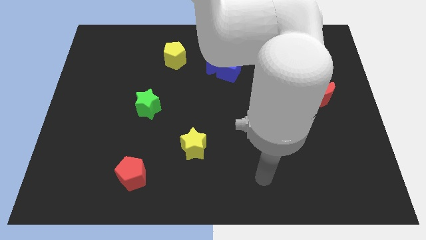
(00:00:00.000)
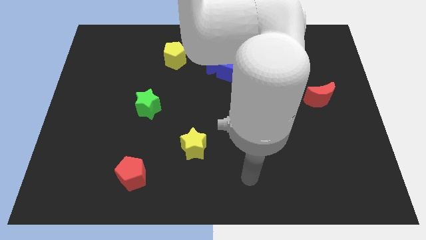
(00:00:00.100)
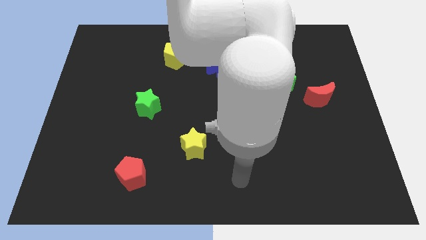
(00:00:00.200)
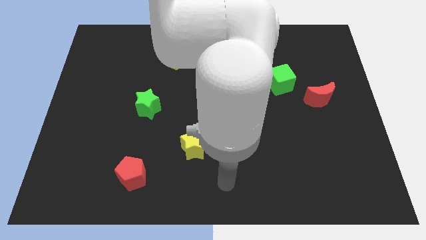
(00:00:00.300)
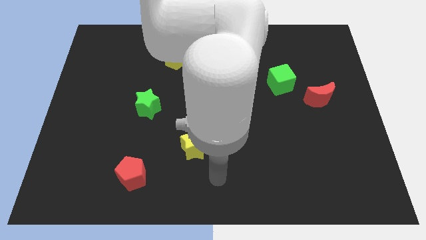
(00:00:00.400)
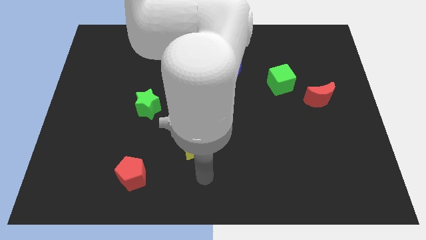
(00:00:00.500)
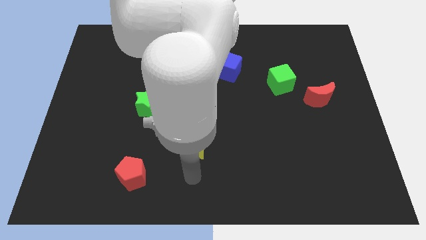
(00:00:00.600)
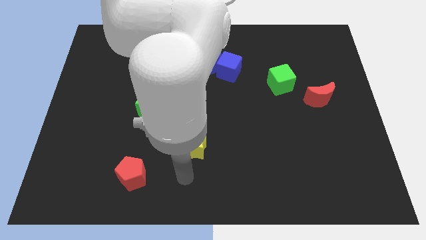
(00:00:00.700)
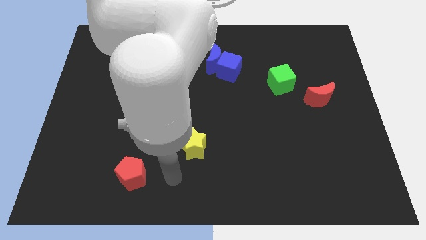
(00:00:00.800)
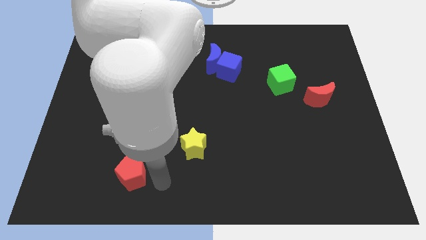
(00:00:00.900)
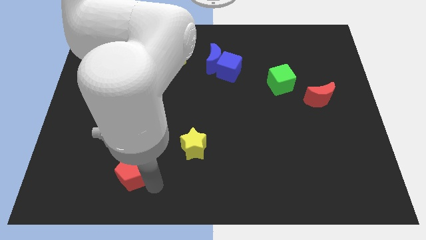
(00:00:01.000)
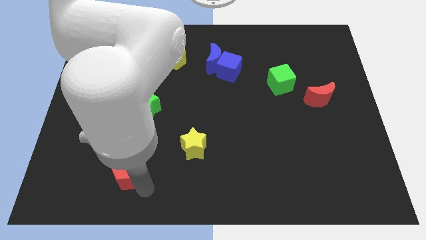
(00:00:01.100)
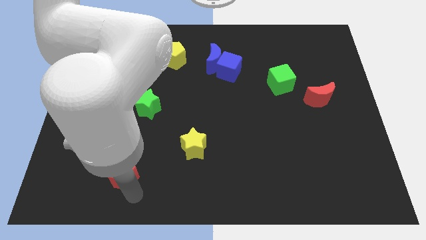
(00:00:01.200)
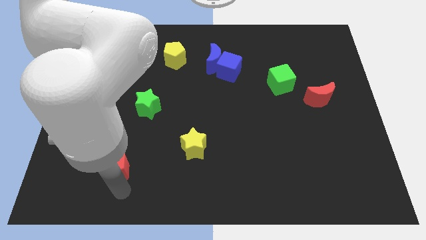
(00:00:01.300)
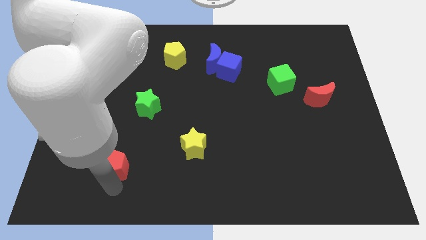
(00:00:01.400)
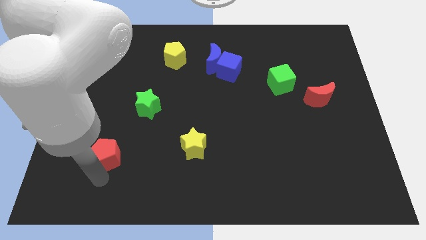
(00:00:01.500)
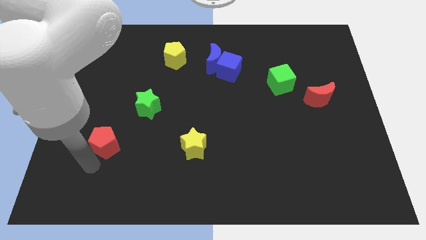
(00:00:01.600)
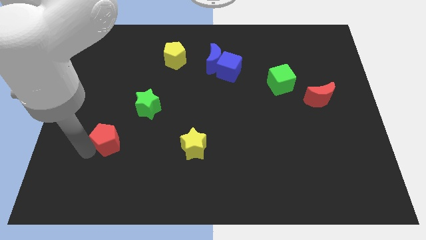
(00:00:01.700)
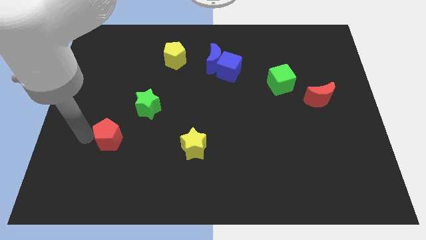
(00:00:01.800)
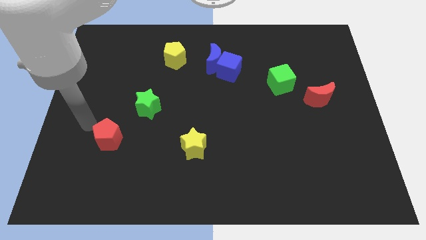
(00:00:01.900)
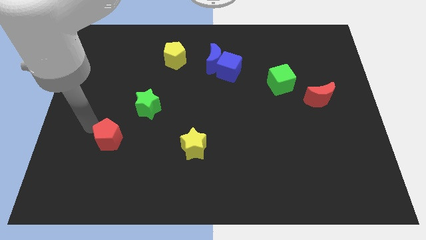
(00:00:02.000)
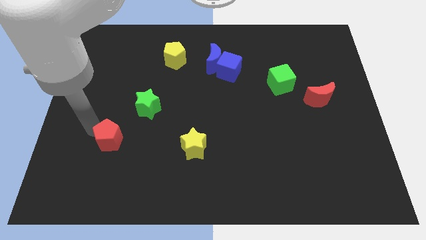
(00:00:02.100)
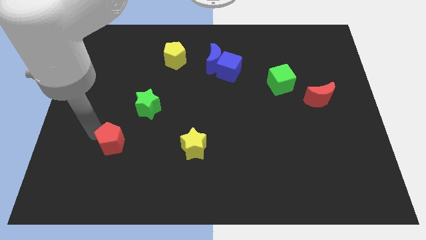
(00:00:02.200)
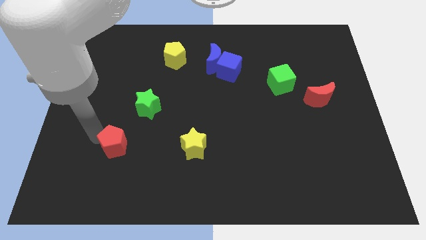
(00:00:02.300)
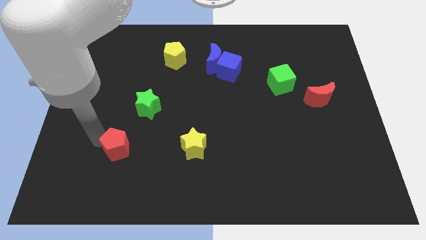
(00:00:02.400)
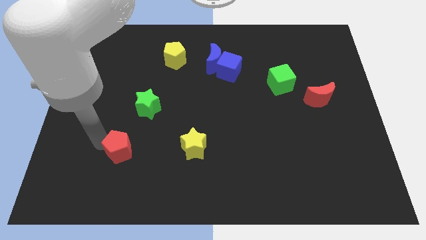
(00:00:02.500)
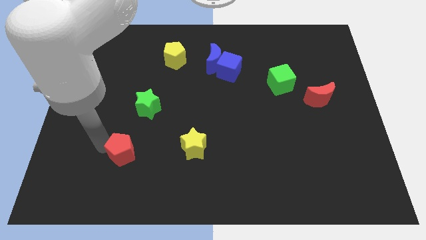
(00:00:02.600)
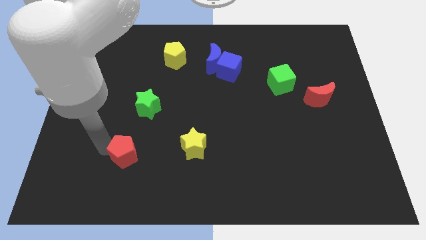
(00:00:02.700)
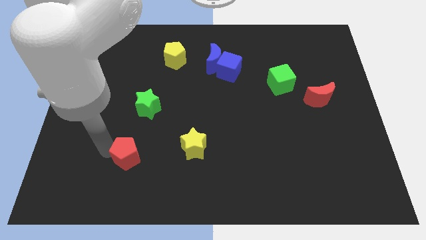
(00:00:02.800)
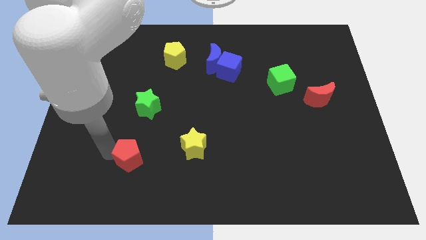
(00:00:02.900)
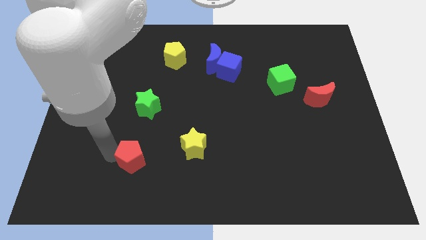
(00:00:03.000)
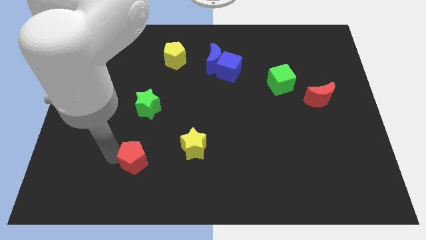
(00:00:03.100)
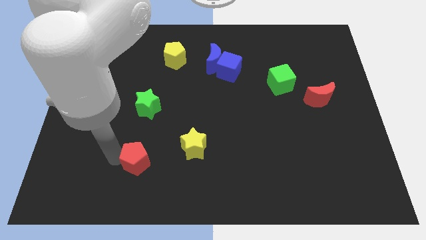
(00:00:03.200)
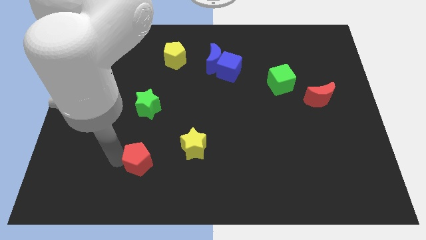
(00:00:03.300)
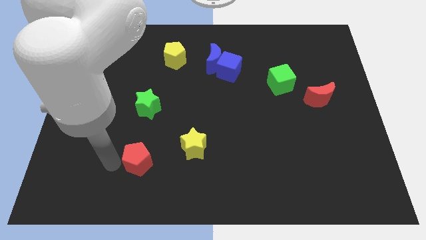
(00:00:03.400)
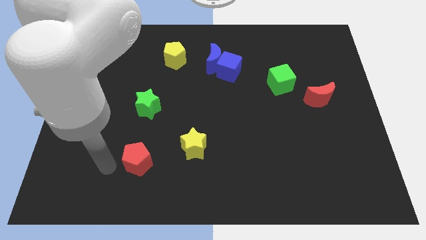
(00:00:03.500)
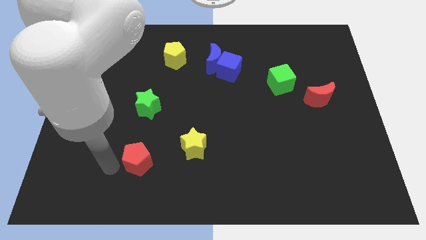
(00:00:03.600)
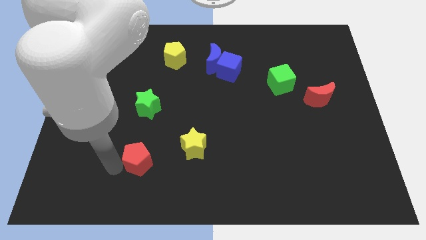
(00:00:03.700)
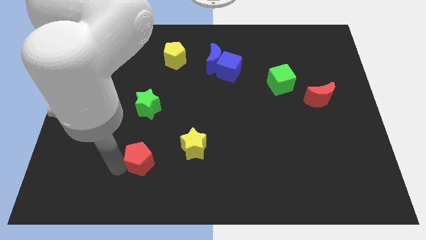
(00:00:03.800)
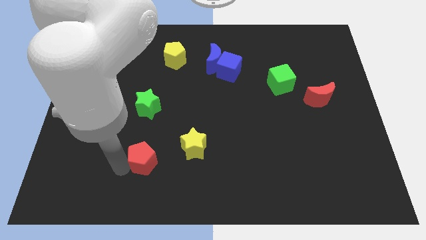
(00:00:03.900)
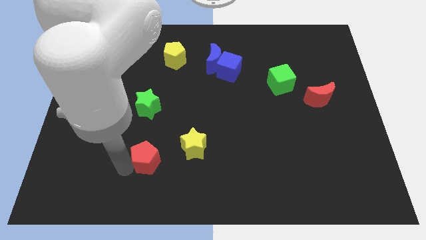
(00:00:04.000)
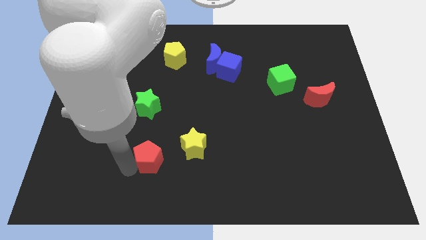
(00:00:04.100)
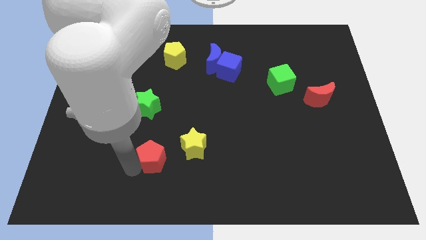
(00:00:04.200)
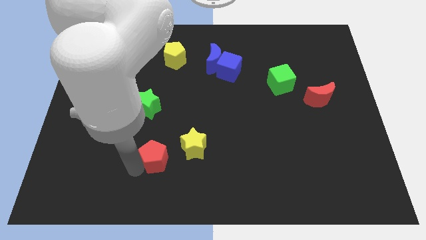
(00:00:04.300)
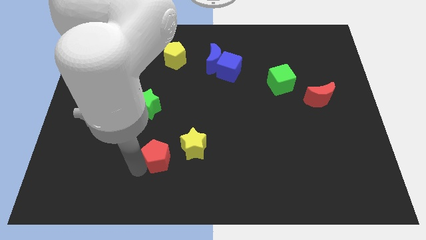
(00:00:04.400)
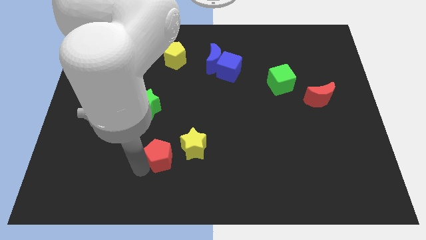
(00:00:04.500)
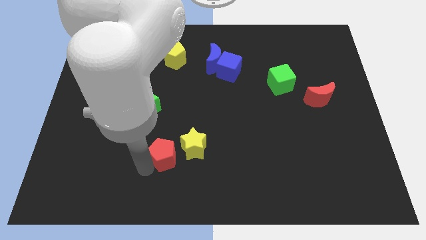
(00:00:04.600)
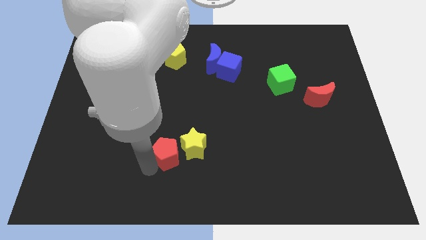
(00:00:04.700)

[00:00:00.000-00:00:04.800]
put the red pentagon to the yellow star

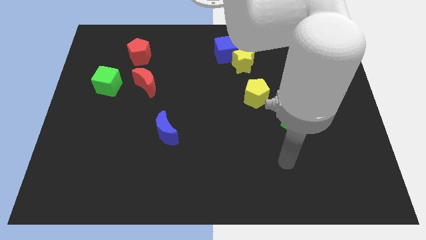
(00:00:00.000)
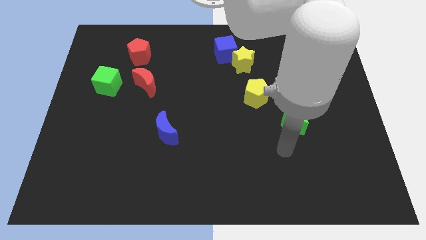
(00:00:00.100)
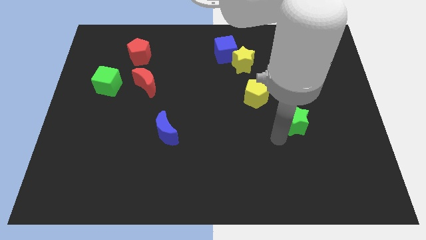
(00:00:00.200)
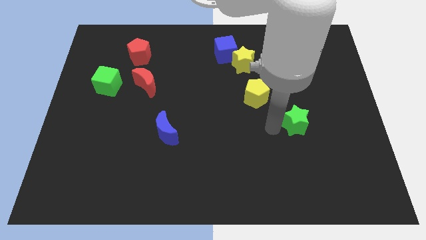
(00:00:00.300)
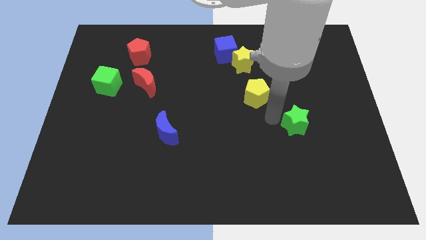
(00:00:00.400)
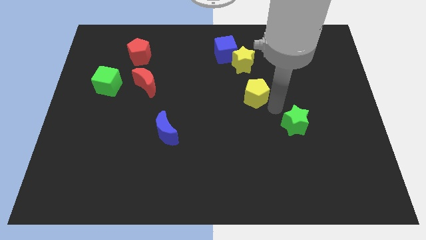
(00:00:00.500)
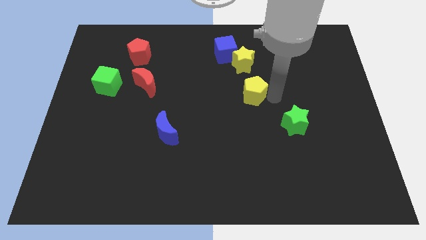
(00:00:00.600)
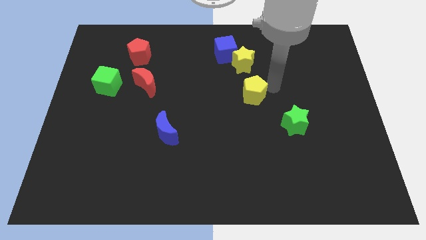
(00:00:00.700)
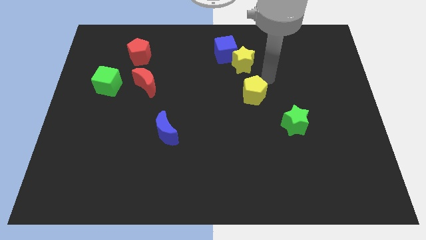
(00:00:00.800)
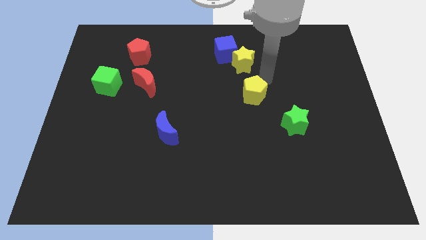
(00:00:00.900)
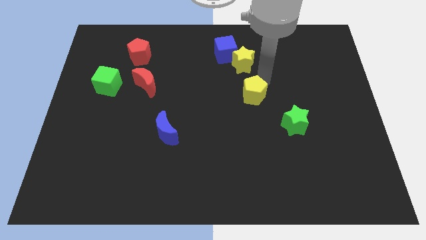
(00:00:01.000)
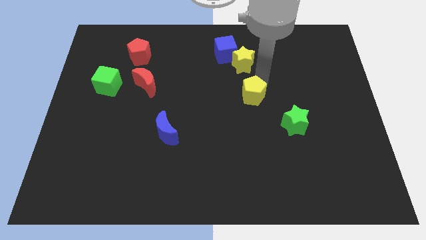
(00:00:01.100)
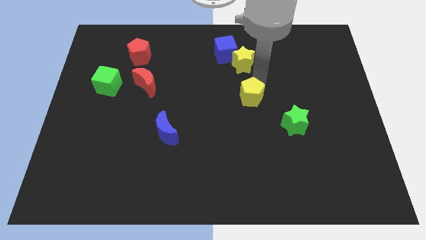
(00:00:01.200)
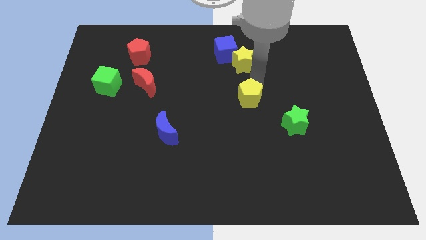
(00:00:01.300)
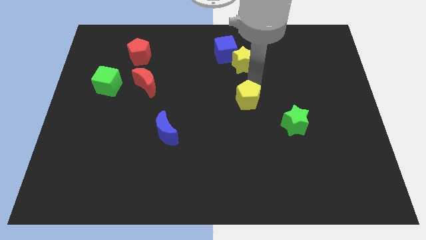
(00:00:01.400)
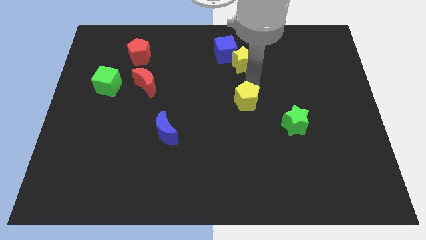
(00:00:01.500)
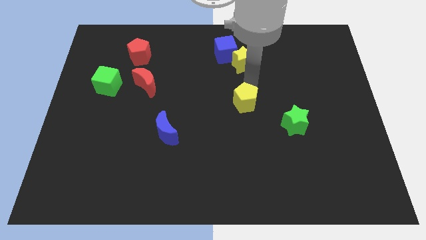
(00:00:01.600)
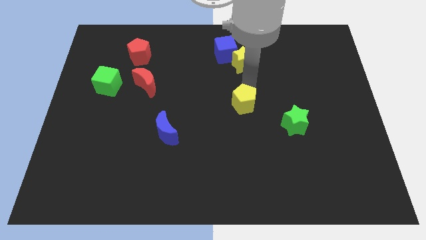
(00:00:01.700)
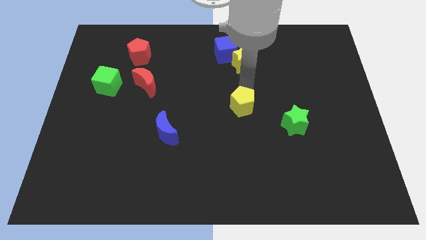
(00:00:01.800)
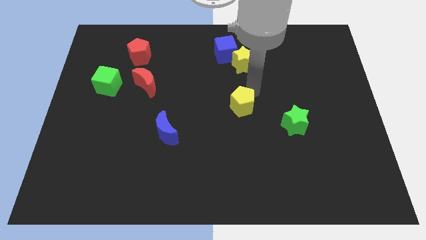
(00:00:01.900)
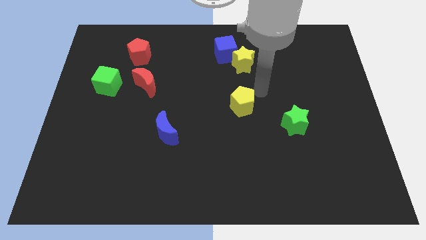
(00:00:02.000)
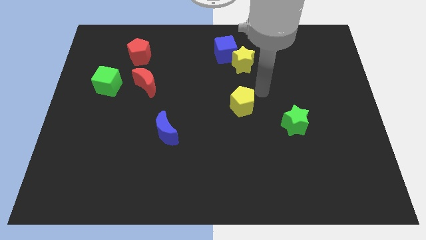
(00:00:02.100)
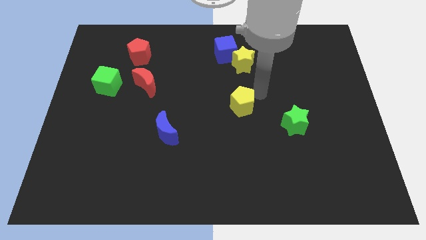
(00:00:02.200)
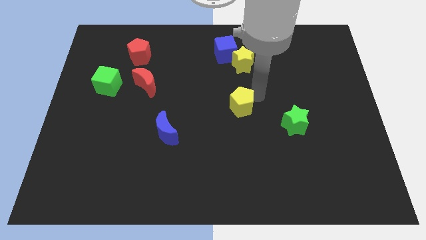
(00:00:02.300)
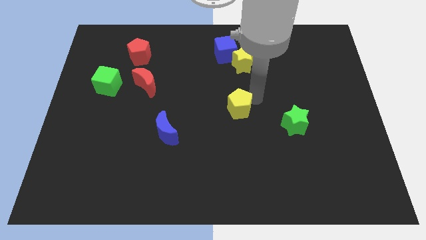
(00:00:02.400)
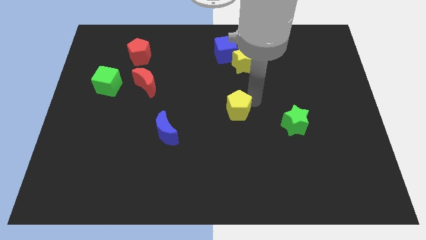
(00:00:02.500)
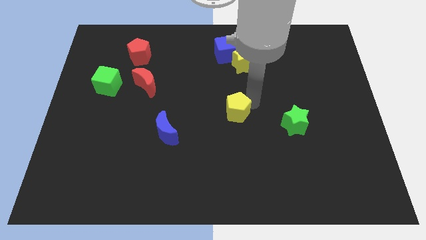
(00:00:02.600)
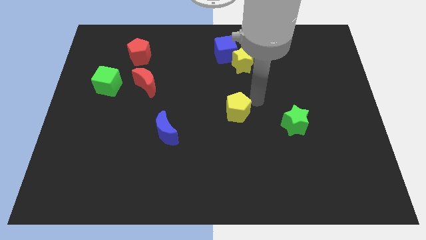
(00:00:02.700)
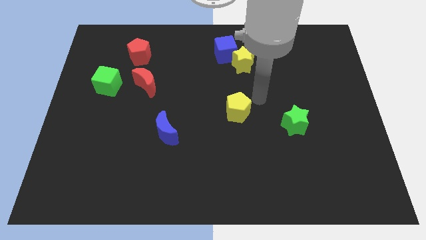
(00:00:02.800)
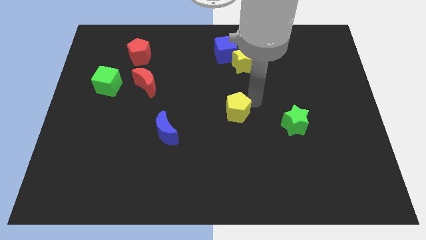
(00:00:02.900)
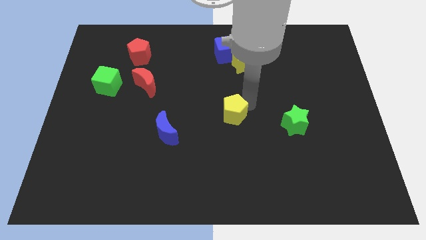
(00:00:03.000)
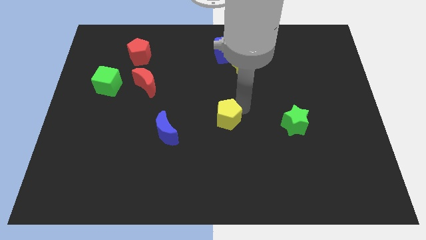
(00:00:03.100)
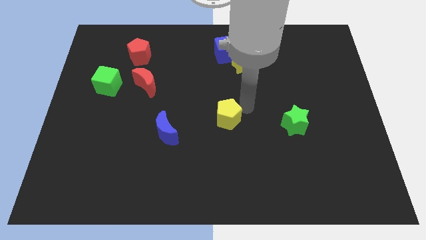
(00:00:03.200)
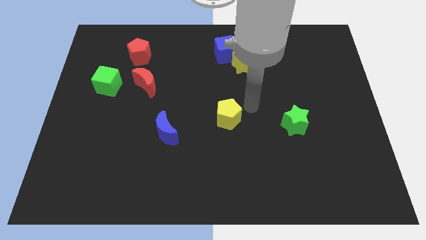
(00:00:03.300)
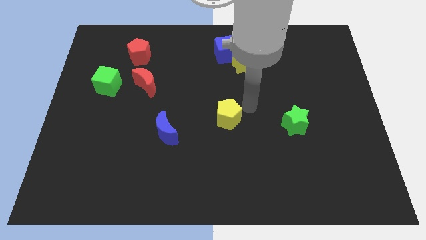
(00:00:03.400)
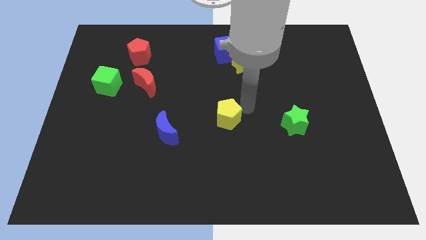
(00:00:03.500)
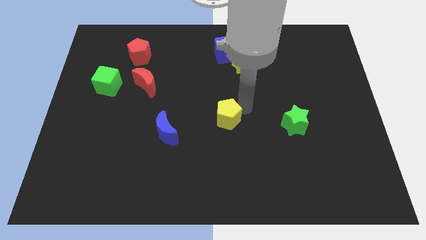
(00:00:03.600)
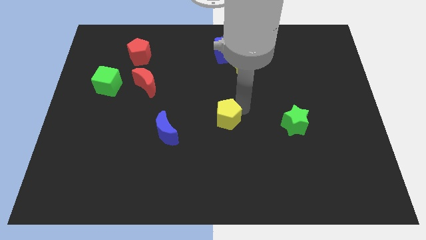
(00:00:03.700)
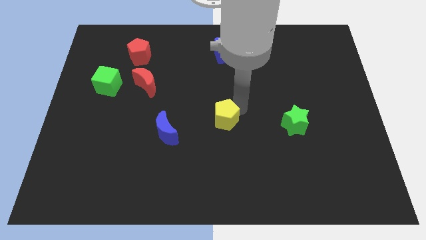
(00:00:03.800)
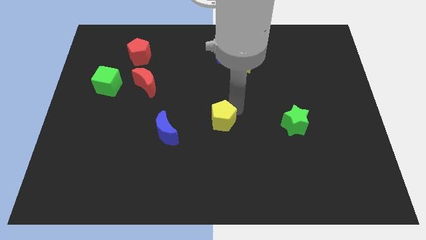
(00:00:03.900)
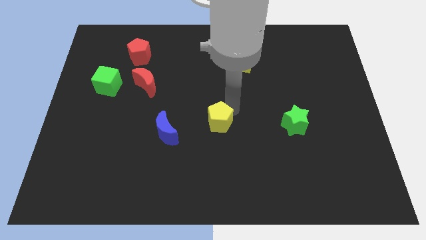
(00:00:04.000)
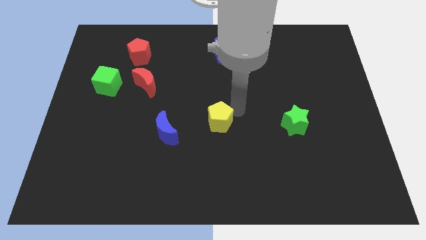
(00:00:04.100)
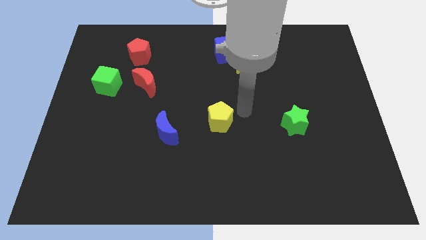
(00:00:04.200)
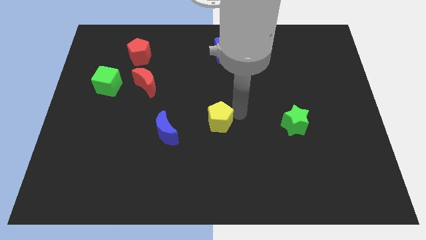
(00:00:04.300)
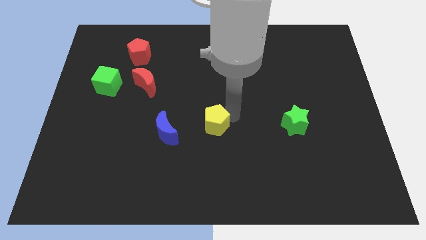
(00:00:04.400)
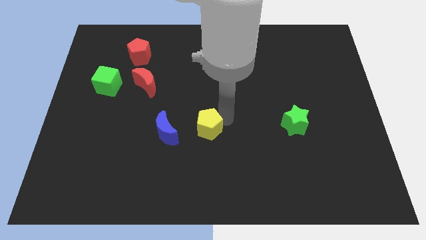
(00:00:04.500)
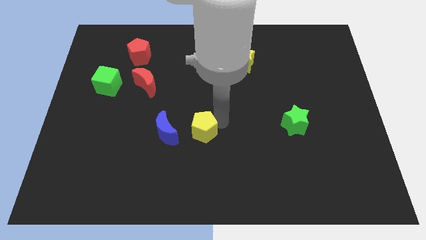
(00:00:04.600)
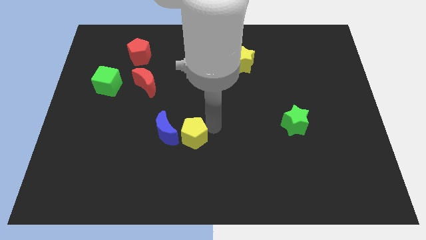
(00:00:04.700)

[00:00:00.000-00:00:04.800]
move the yellow pentagon close to the blue moon
